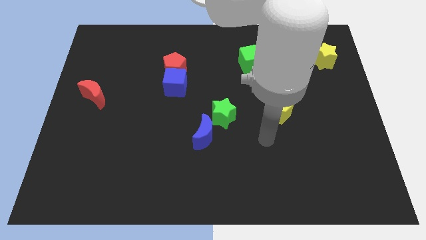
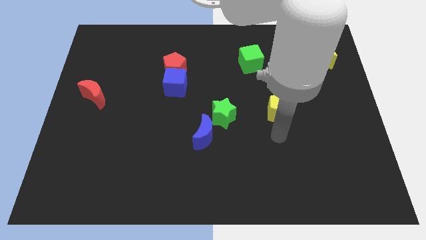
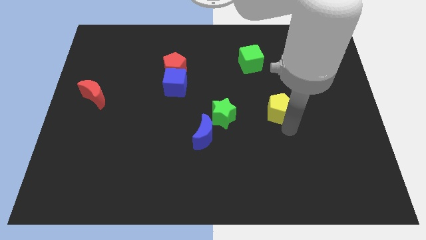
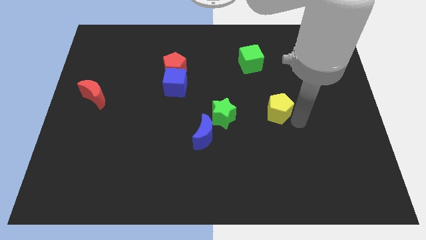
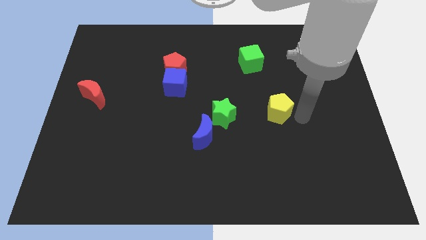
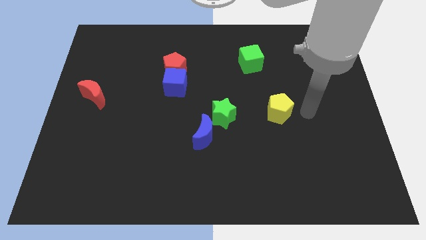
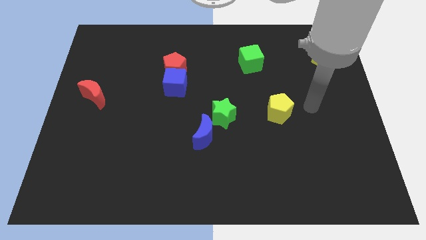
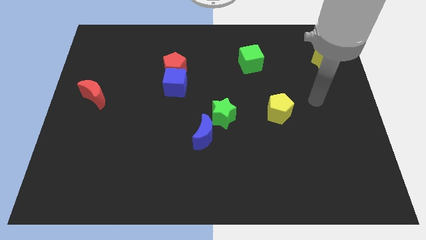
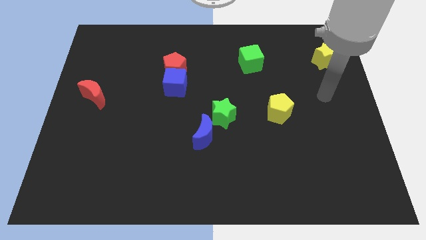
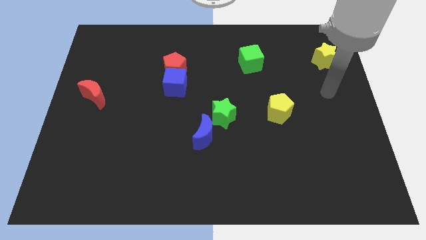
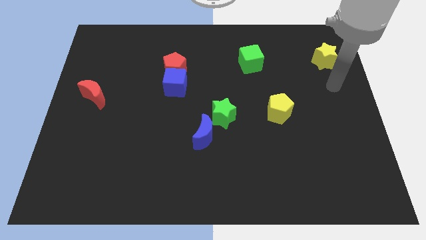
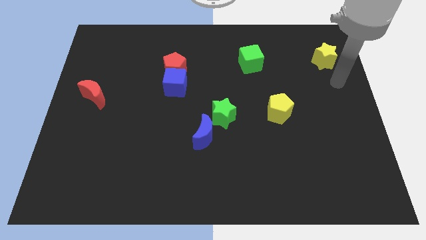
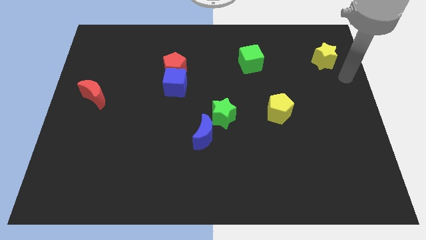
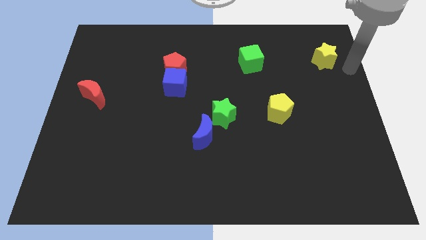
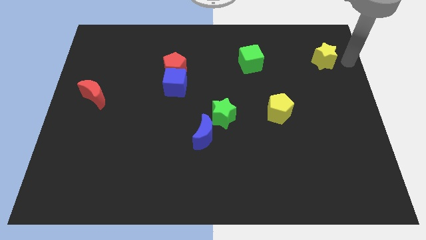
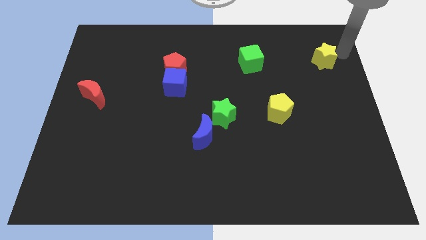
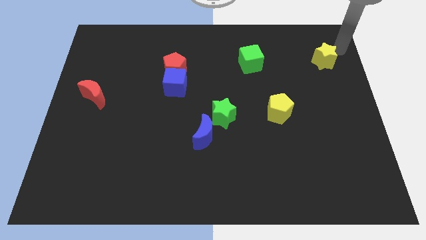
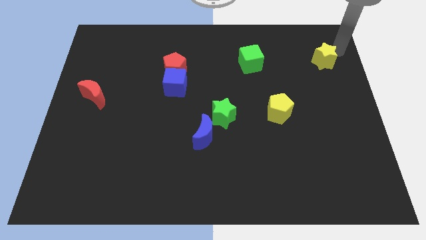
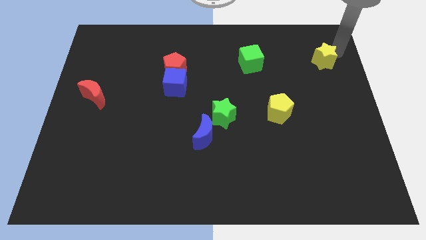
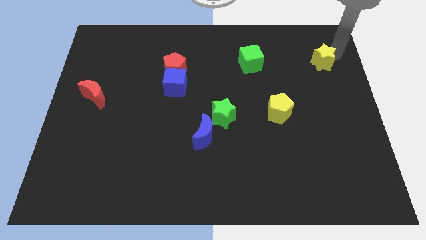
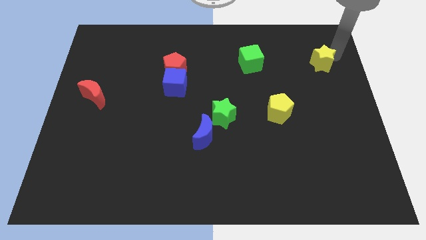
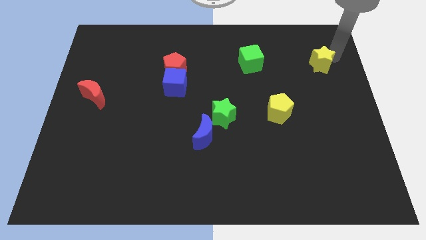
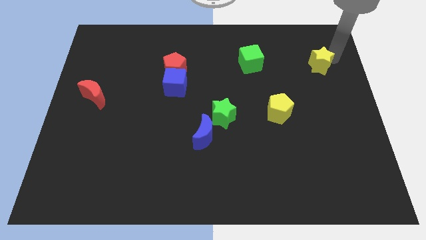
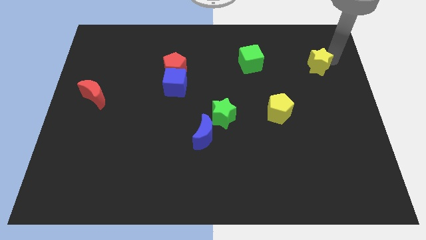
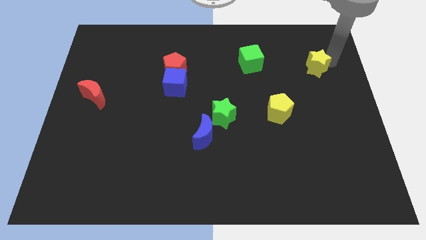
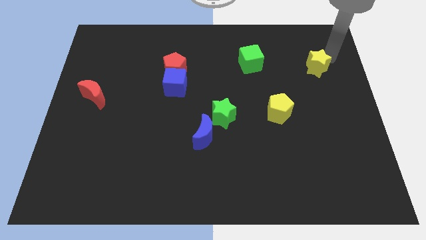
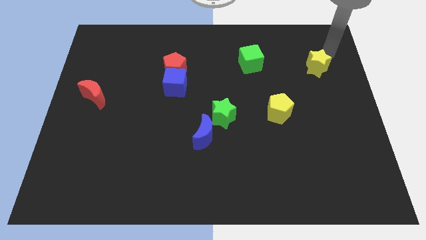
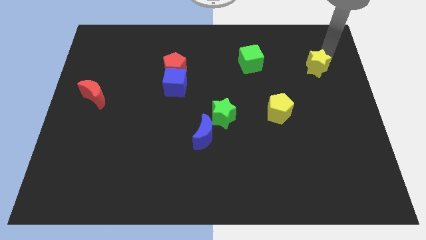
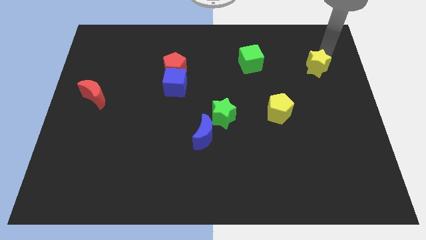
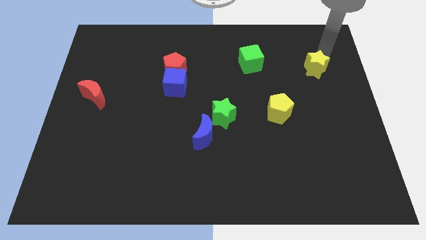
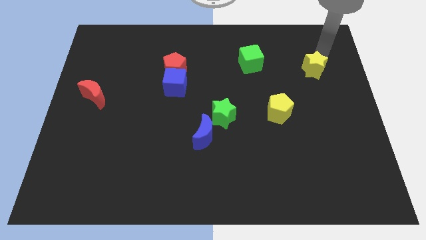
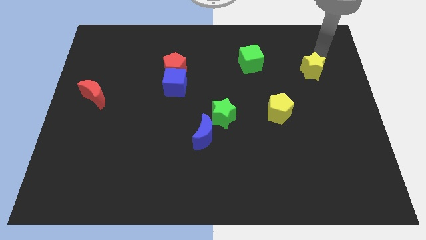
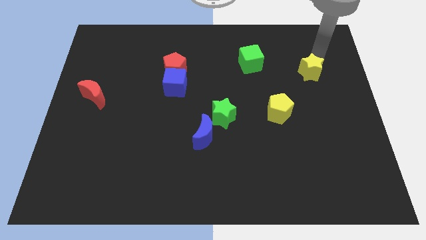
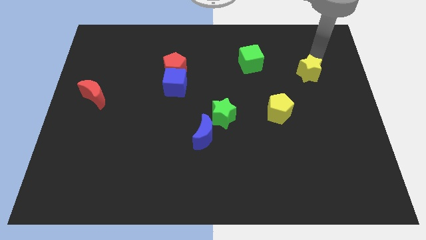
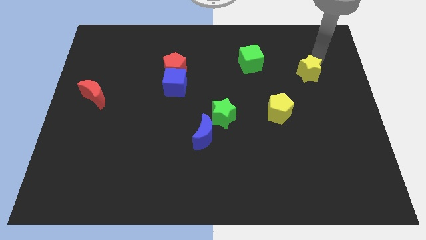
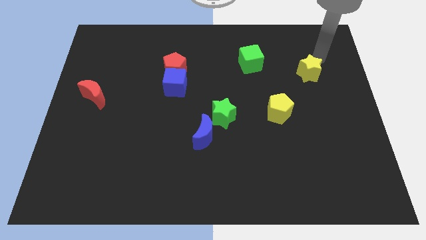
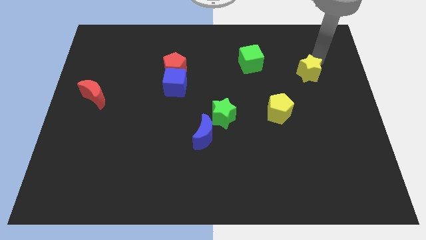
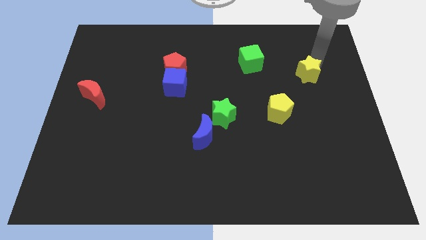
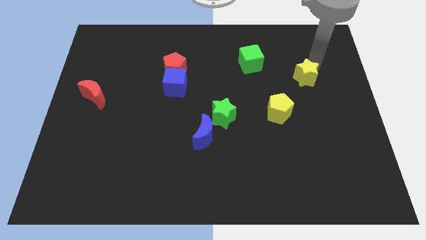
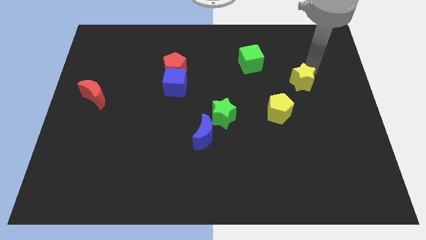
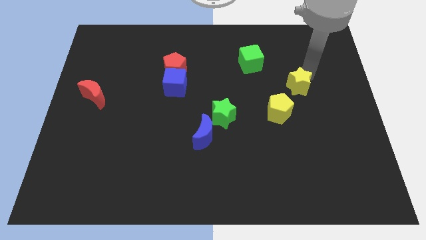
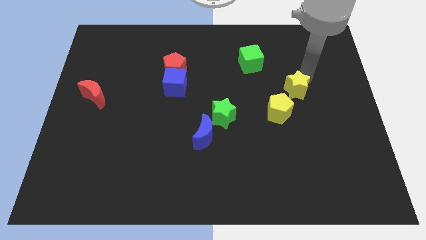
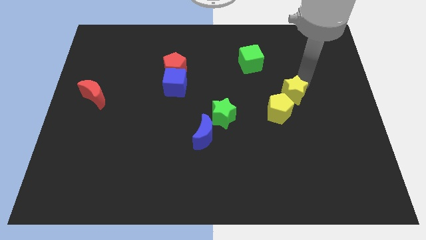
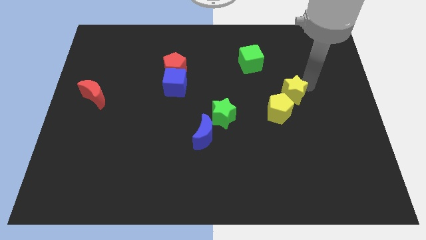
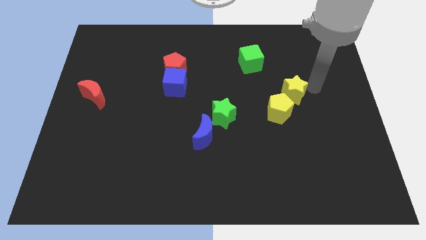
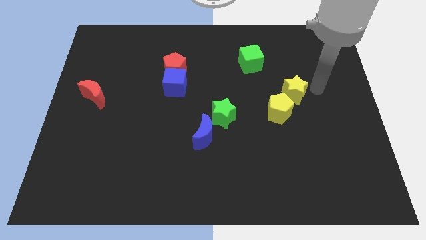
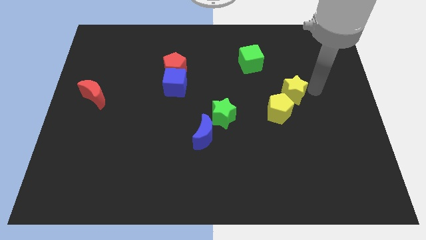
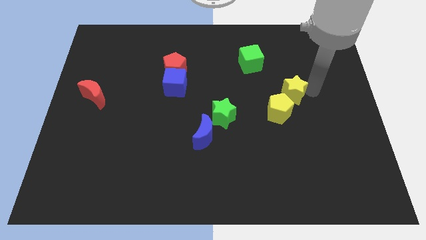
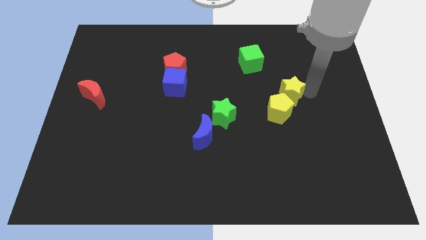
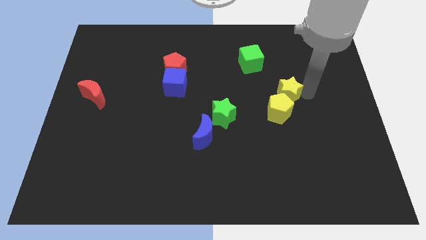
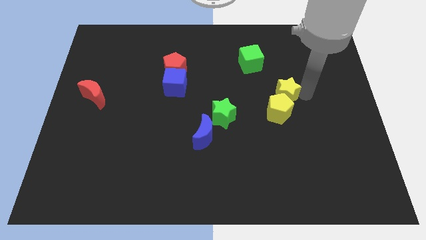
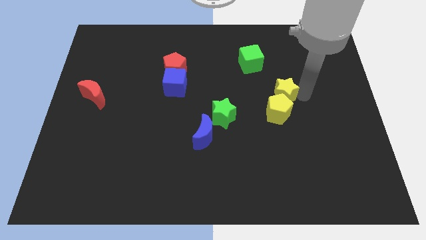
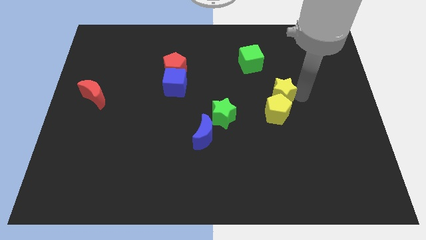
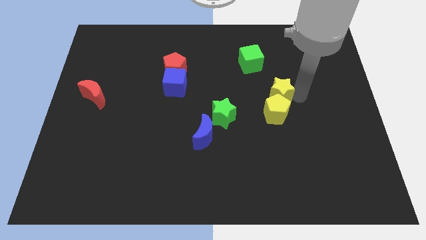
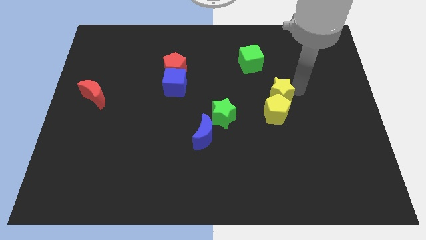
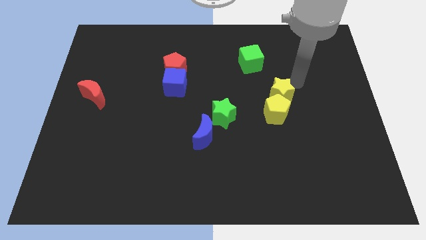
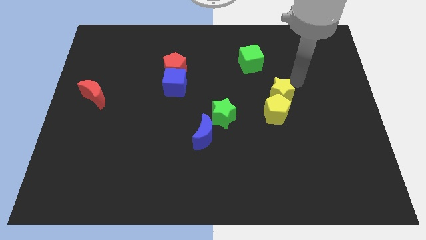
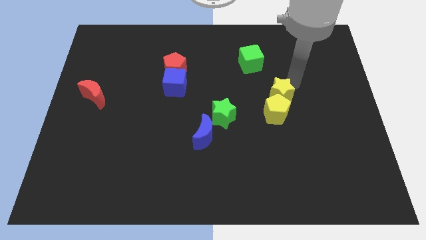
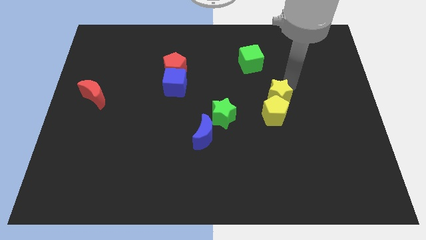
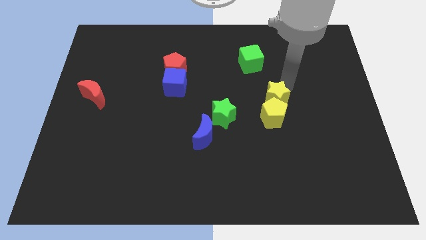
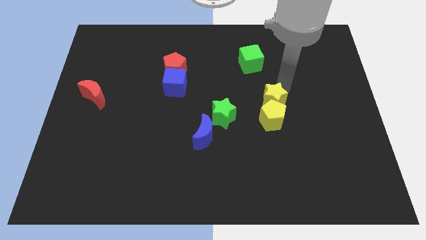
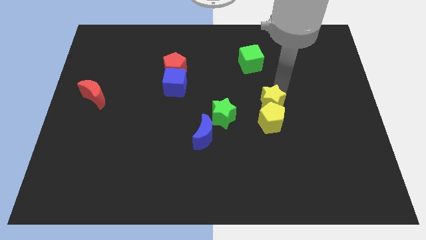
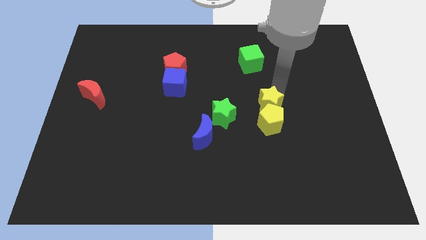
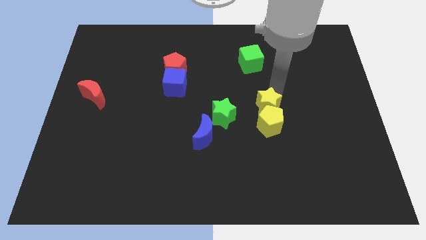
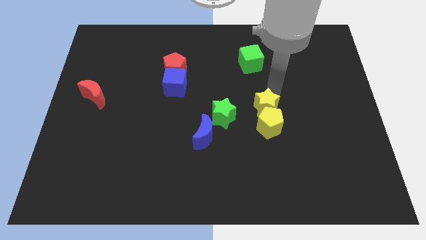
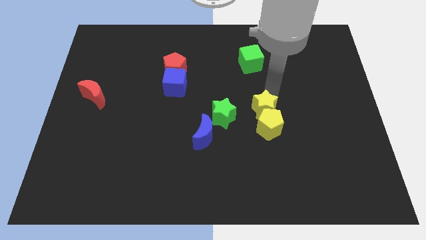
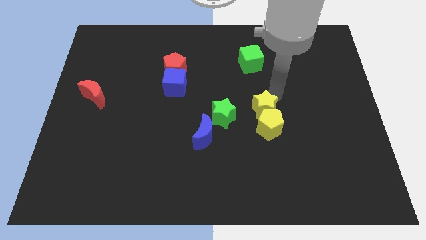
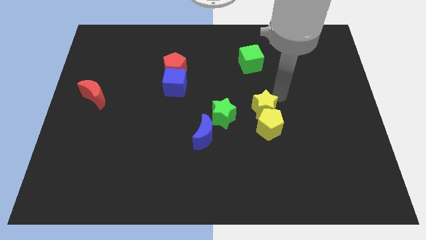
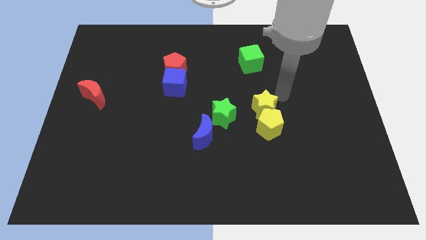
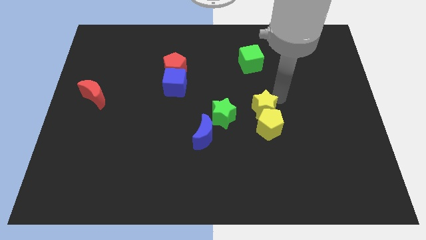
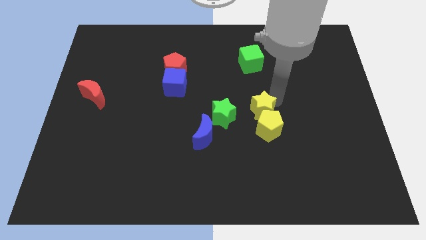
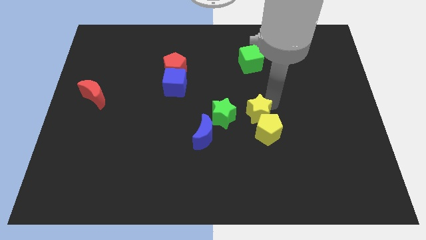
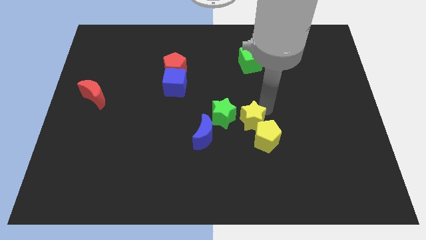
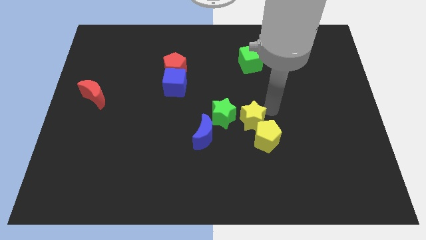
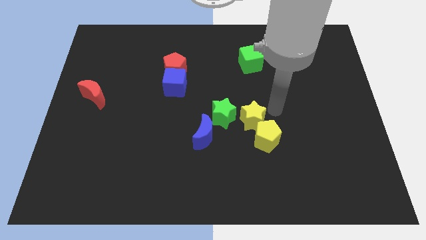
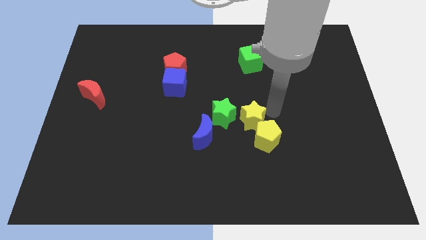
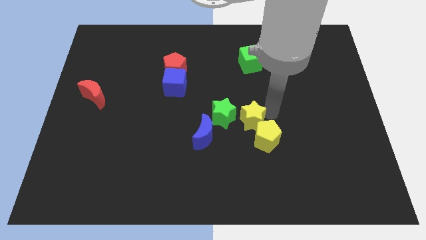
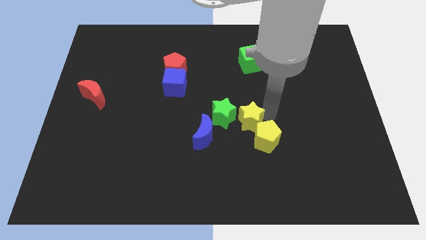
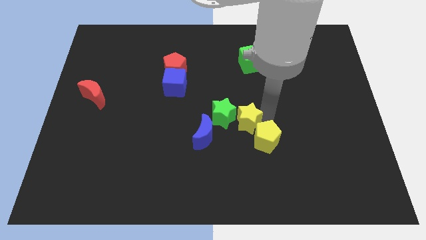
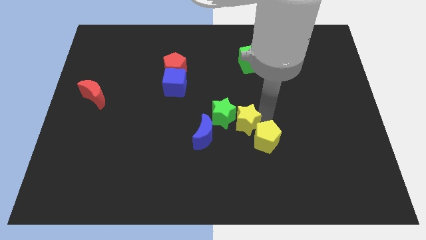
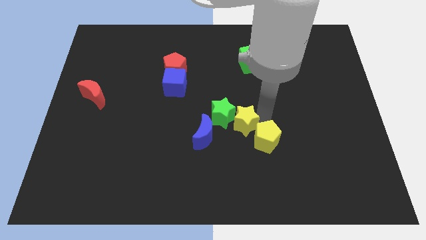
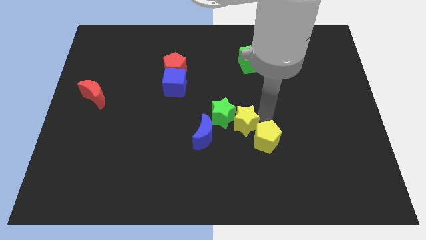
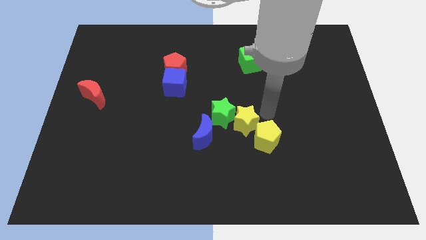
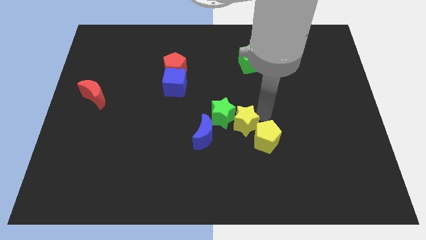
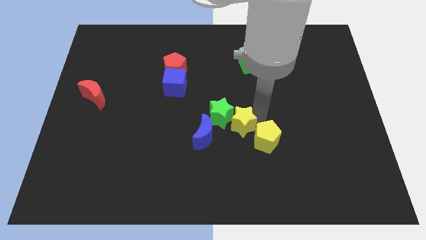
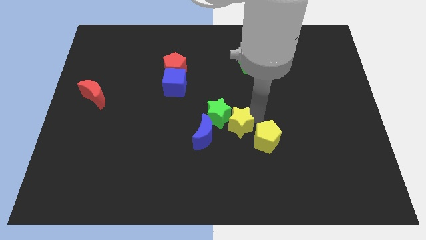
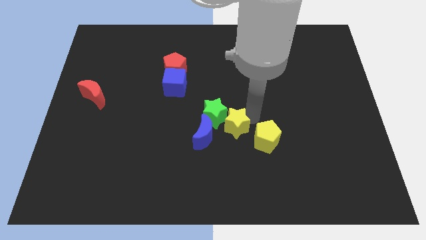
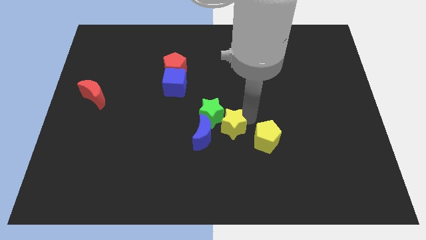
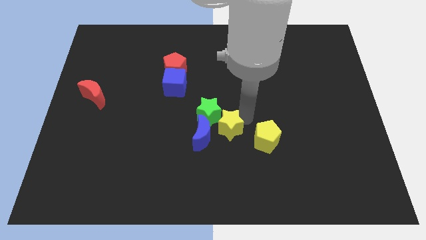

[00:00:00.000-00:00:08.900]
slide the yellow star next to the blue moon
